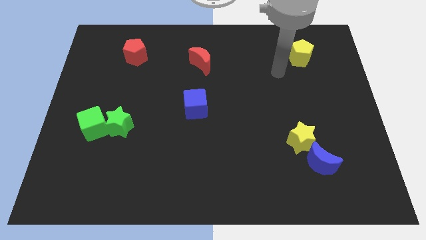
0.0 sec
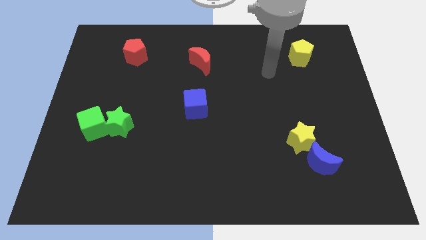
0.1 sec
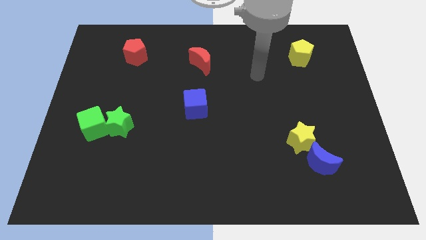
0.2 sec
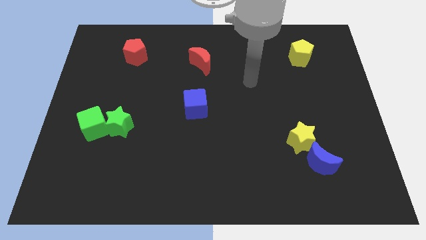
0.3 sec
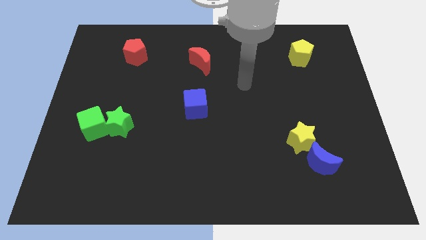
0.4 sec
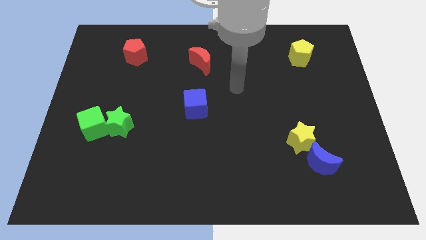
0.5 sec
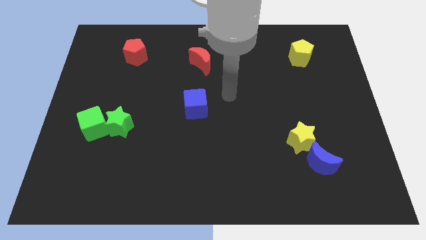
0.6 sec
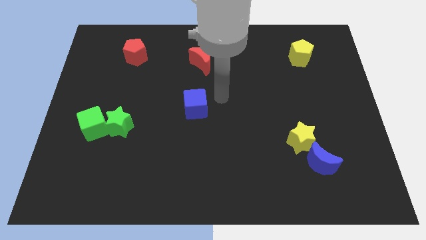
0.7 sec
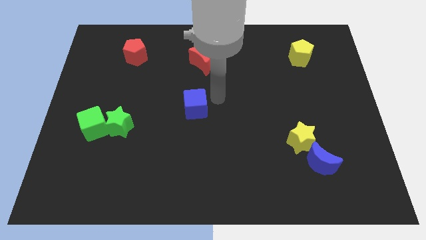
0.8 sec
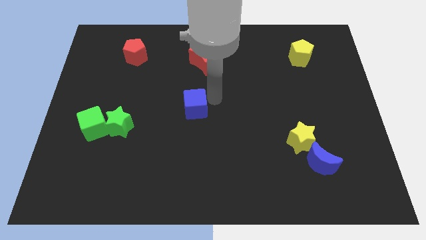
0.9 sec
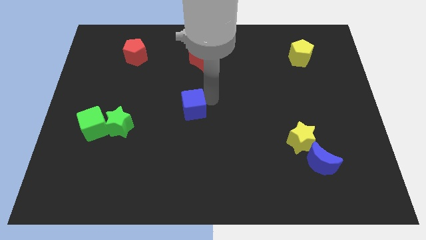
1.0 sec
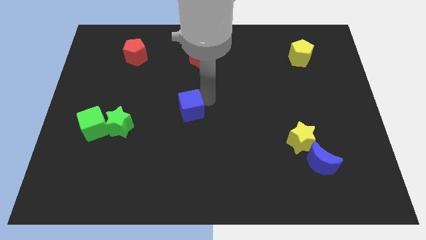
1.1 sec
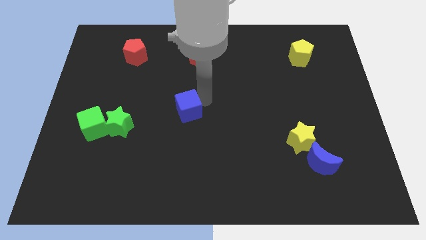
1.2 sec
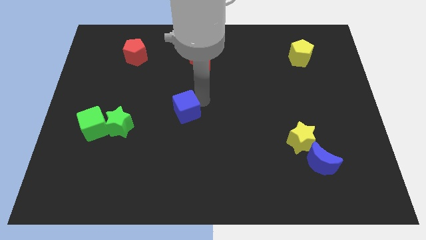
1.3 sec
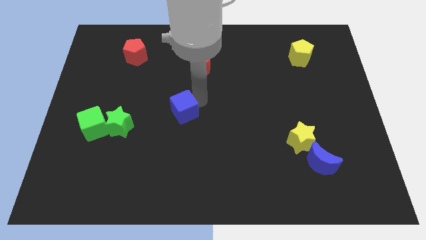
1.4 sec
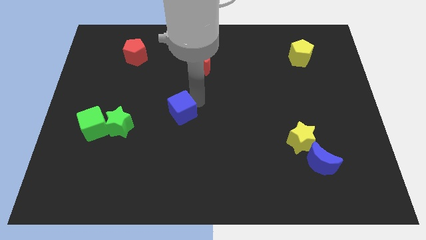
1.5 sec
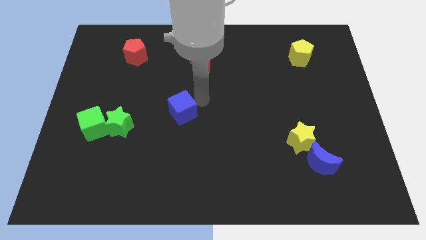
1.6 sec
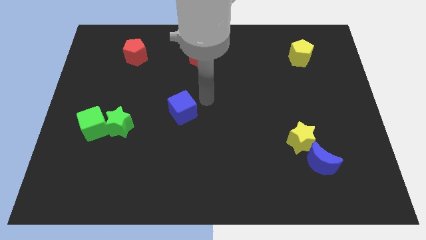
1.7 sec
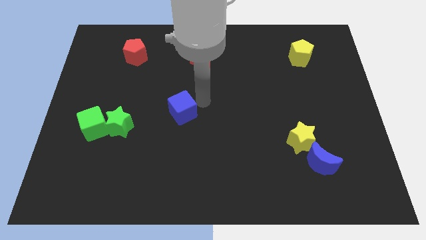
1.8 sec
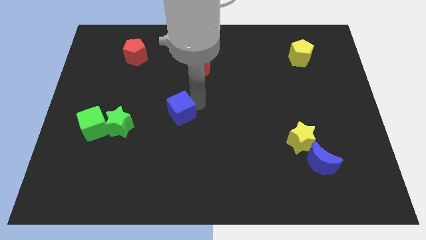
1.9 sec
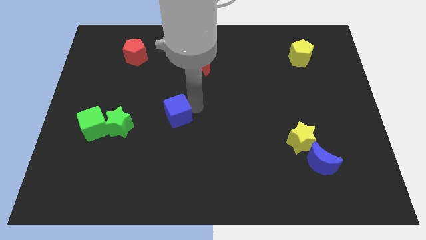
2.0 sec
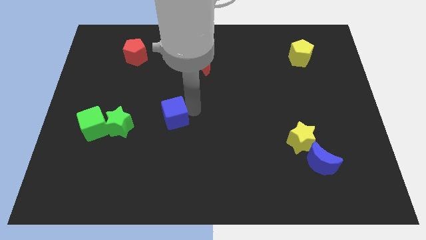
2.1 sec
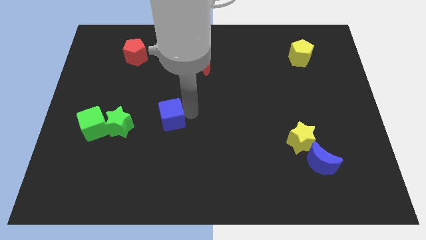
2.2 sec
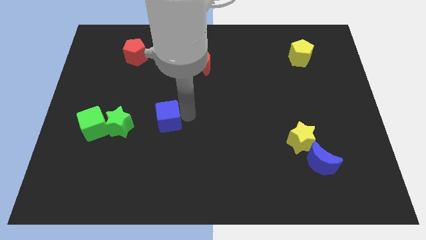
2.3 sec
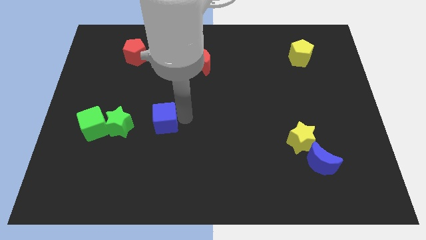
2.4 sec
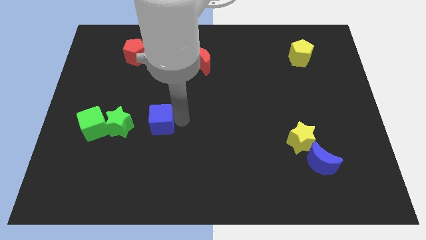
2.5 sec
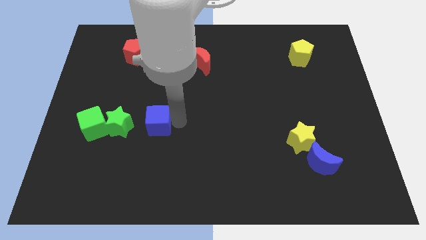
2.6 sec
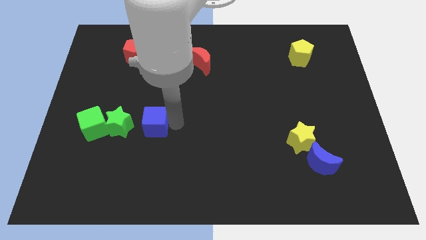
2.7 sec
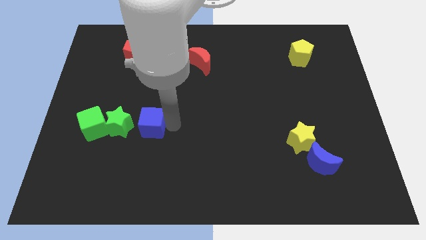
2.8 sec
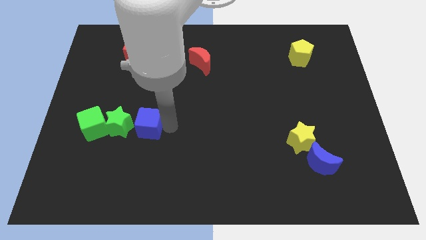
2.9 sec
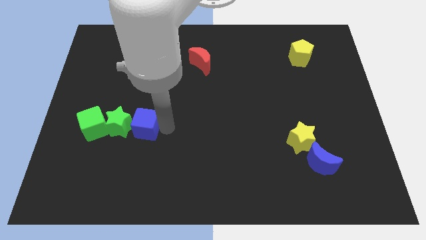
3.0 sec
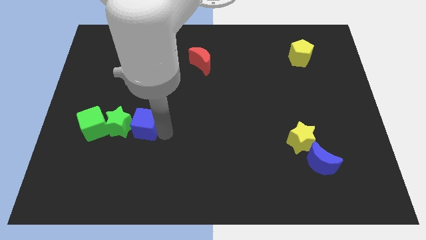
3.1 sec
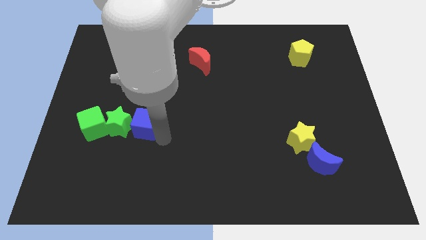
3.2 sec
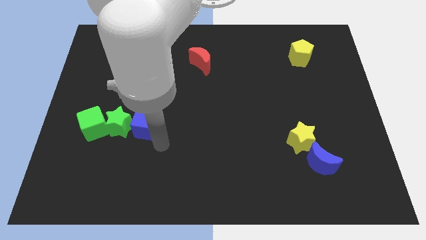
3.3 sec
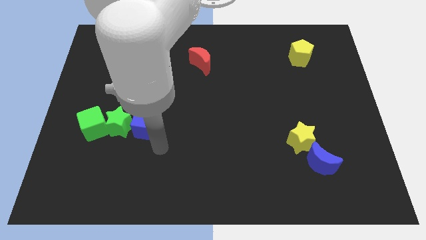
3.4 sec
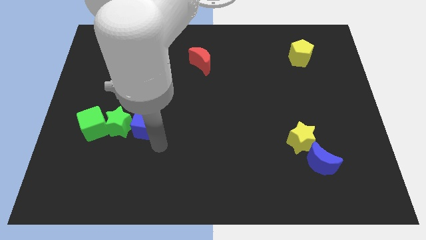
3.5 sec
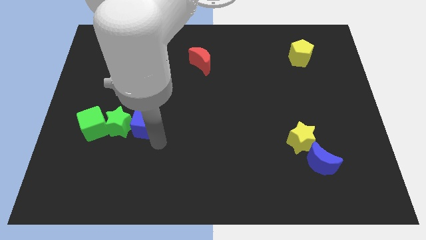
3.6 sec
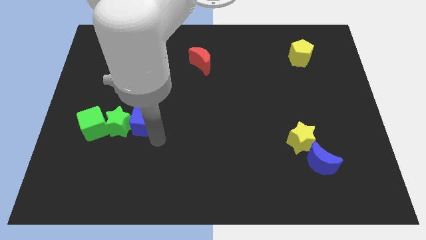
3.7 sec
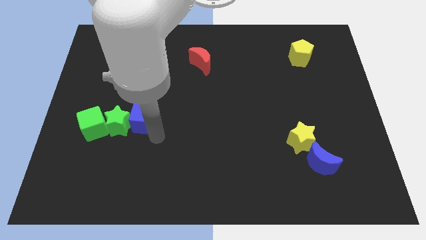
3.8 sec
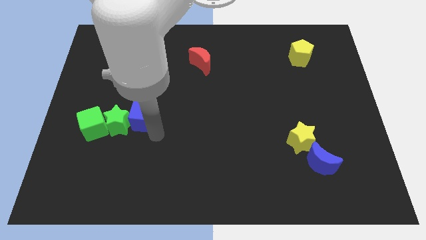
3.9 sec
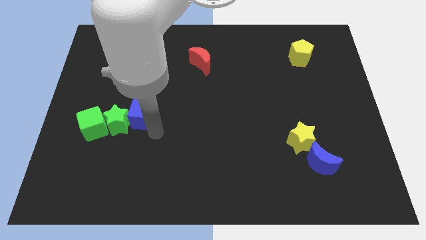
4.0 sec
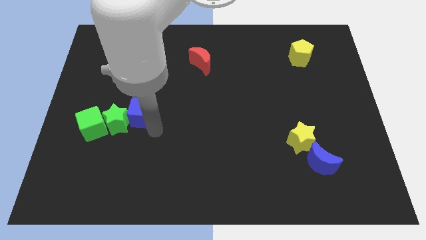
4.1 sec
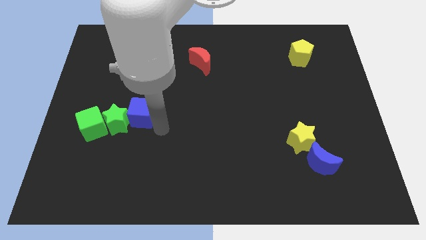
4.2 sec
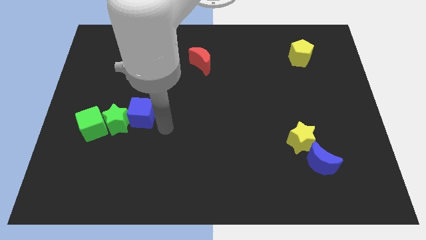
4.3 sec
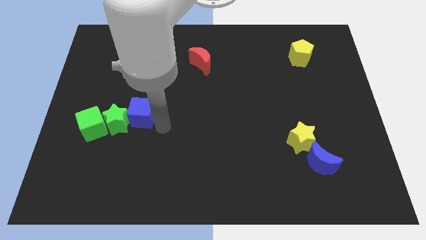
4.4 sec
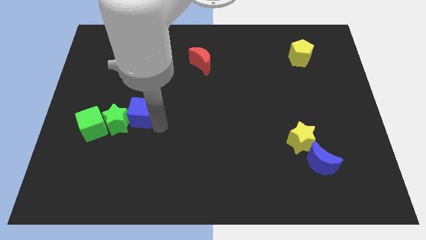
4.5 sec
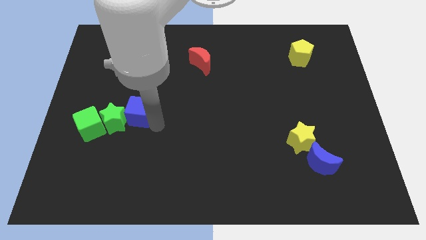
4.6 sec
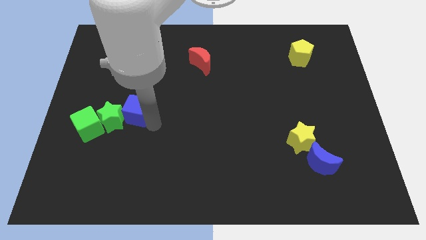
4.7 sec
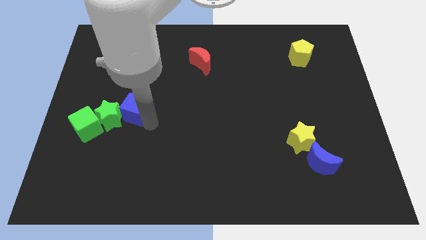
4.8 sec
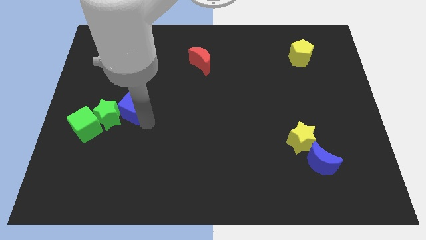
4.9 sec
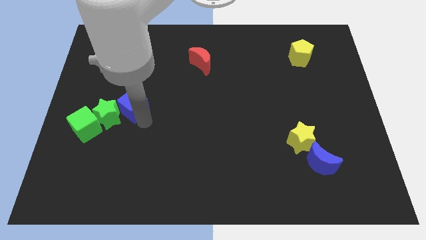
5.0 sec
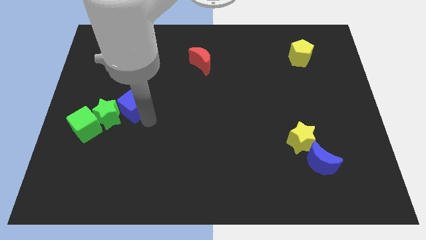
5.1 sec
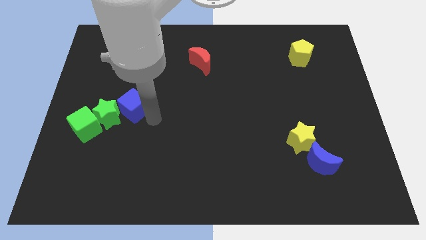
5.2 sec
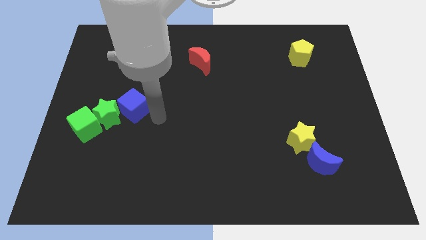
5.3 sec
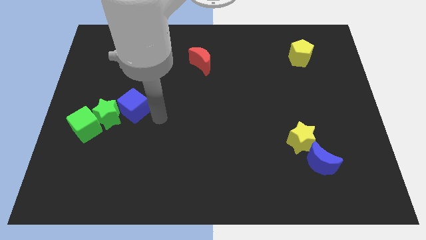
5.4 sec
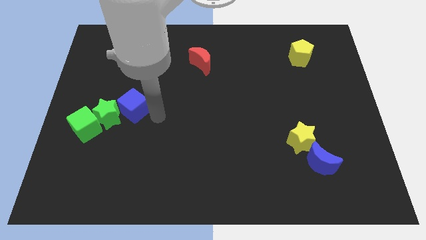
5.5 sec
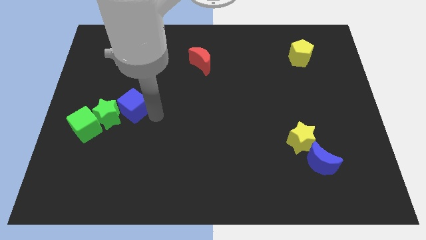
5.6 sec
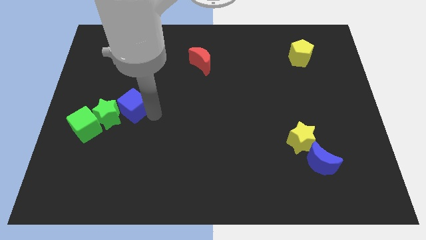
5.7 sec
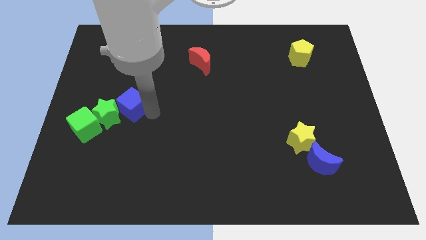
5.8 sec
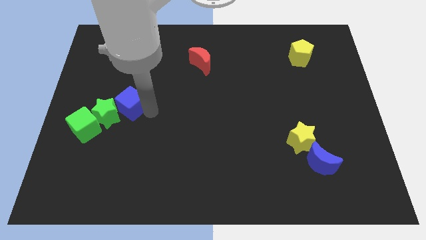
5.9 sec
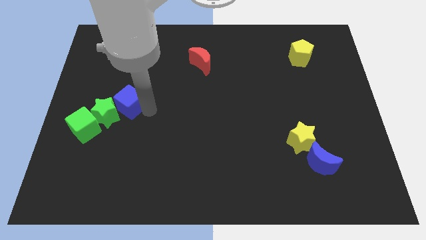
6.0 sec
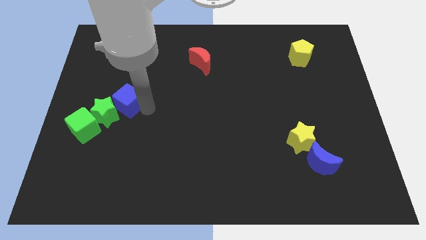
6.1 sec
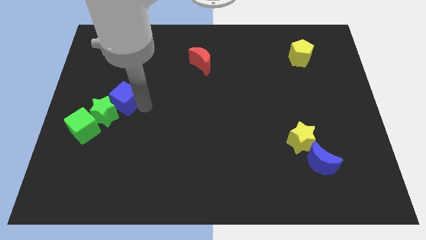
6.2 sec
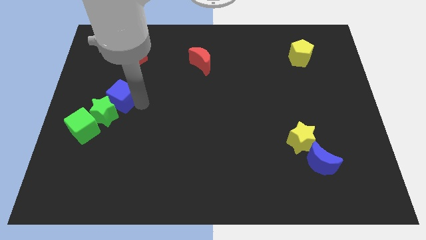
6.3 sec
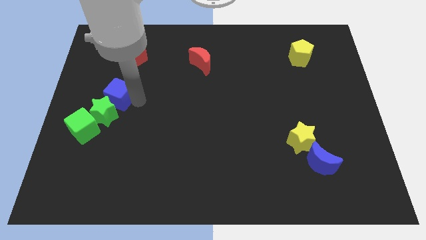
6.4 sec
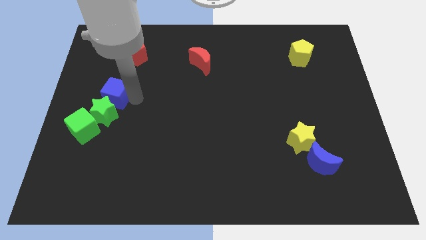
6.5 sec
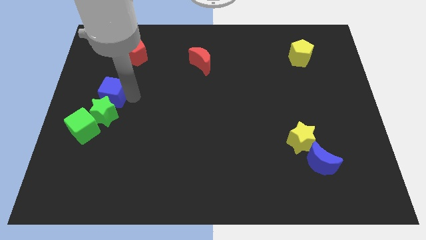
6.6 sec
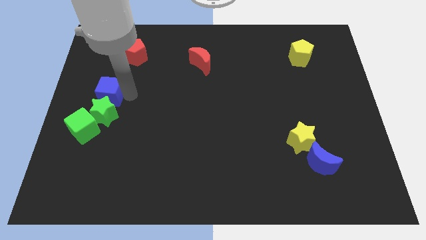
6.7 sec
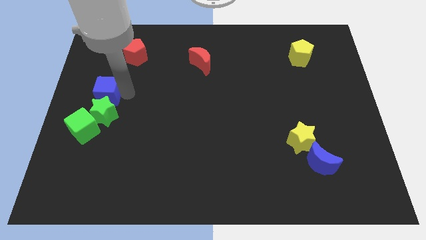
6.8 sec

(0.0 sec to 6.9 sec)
push the blue cube to the center left
